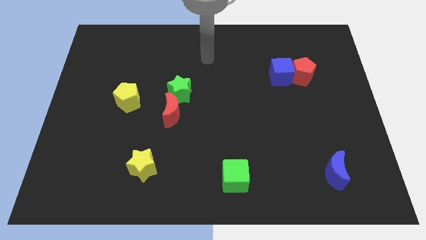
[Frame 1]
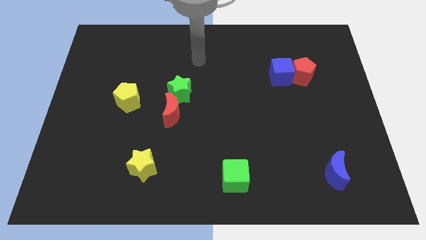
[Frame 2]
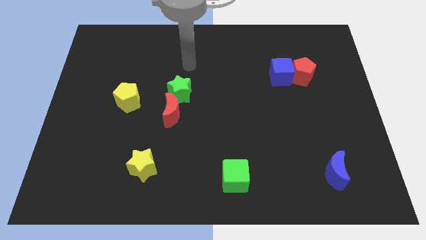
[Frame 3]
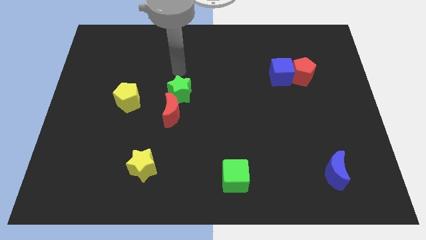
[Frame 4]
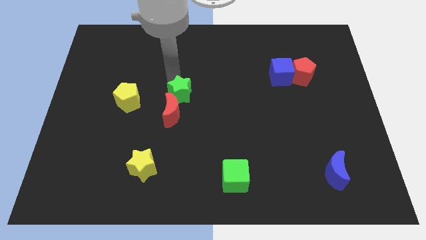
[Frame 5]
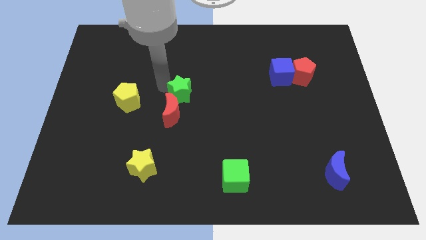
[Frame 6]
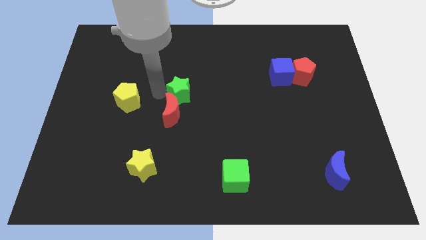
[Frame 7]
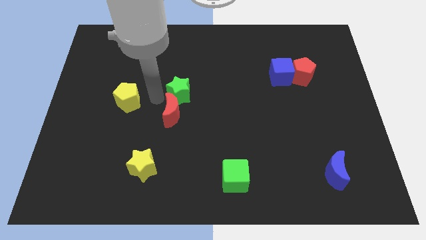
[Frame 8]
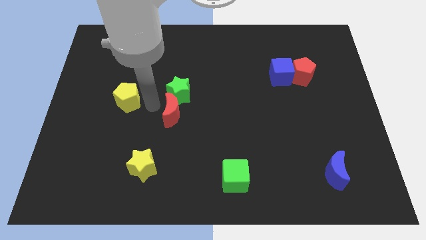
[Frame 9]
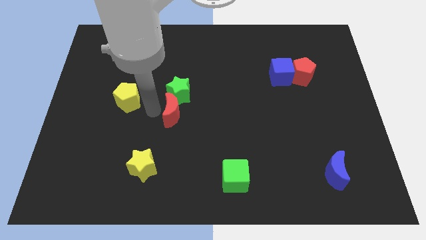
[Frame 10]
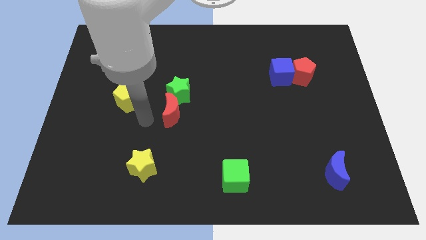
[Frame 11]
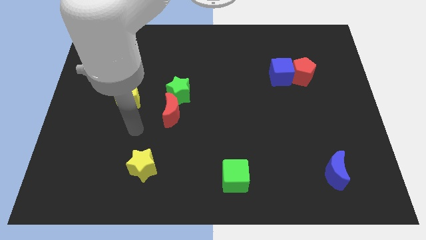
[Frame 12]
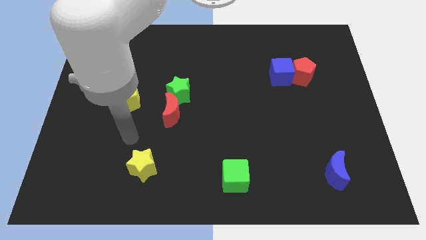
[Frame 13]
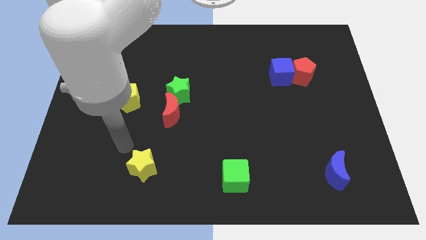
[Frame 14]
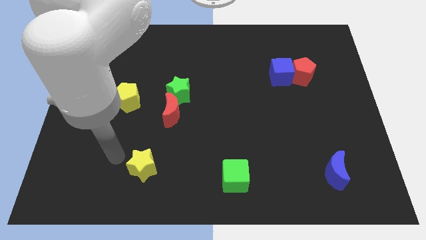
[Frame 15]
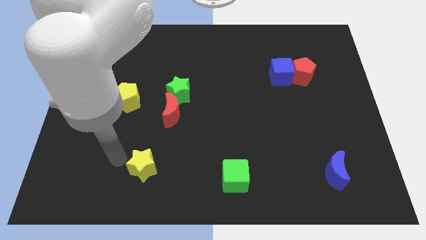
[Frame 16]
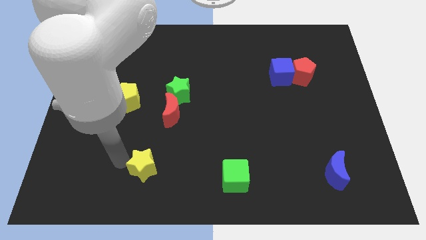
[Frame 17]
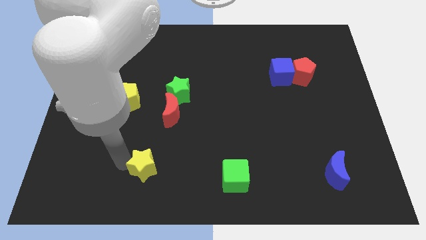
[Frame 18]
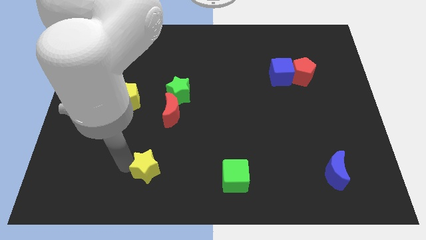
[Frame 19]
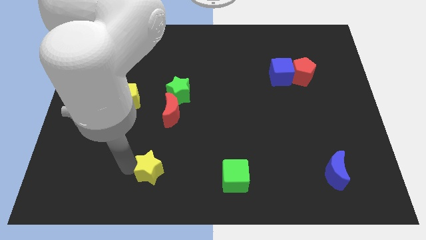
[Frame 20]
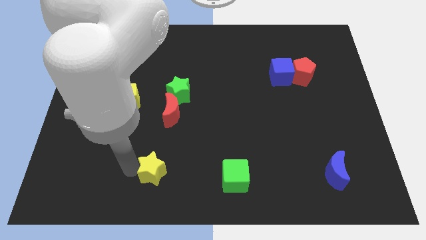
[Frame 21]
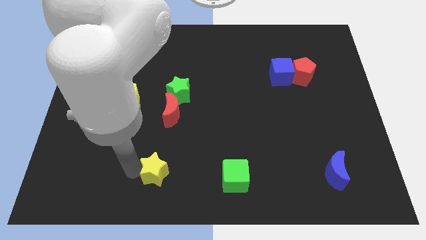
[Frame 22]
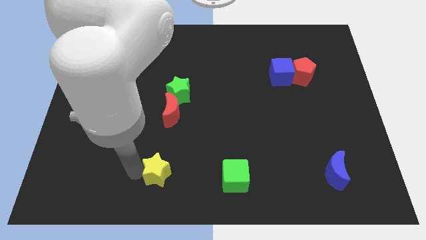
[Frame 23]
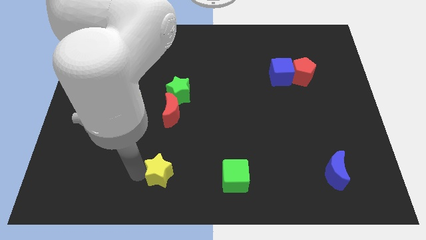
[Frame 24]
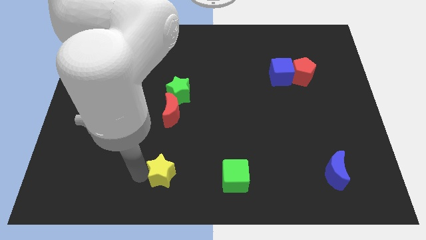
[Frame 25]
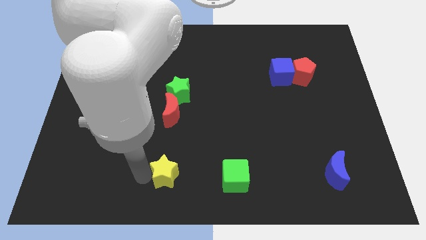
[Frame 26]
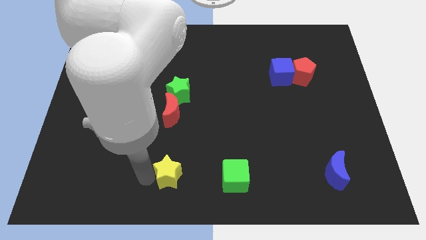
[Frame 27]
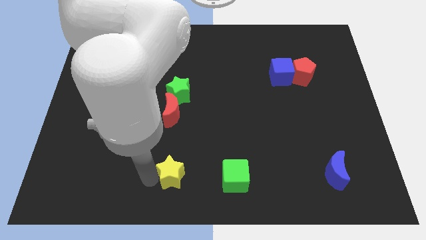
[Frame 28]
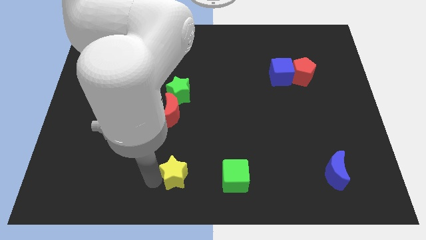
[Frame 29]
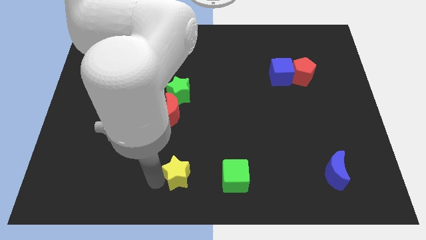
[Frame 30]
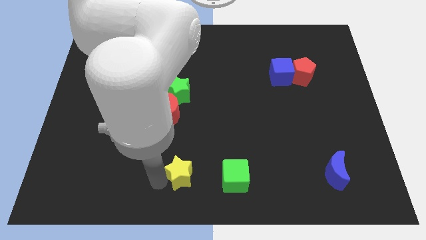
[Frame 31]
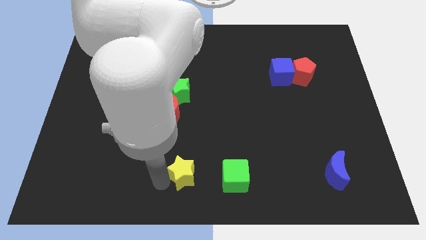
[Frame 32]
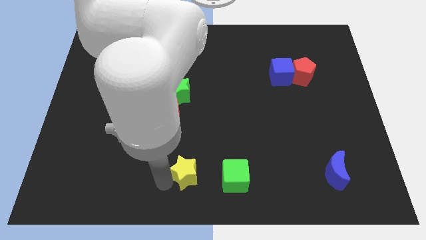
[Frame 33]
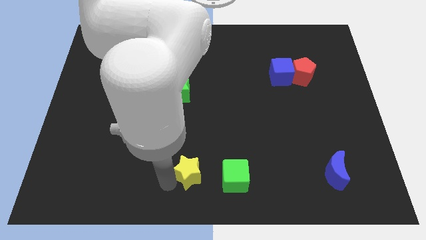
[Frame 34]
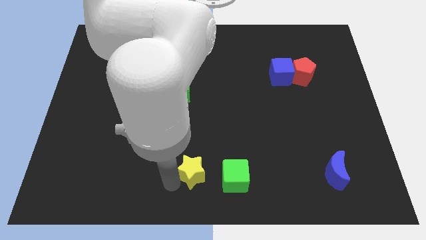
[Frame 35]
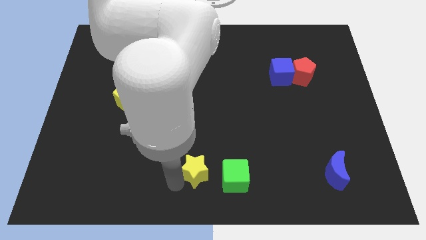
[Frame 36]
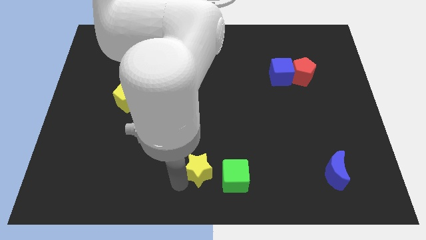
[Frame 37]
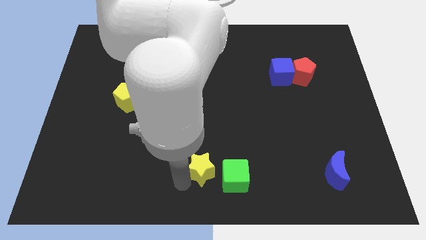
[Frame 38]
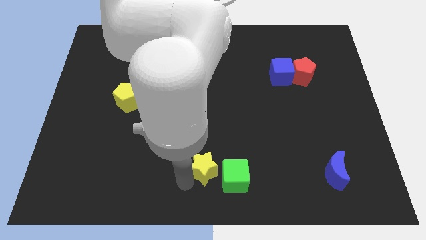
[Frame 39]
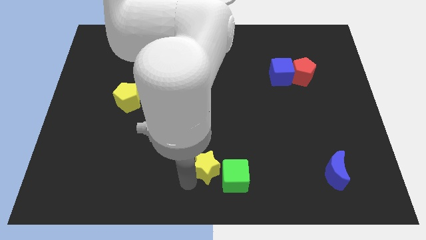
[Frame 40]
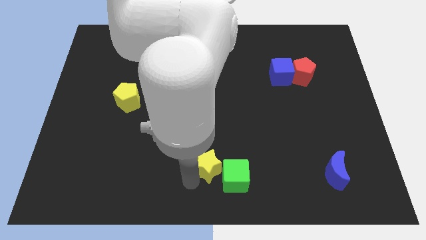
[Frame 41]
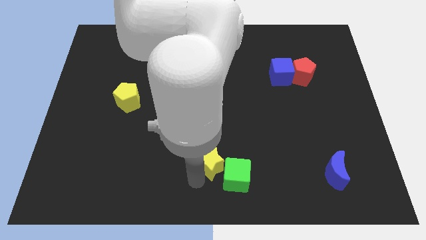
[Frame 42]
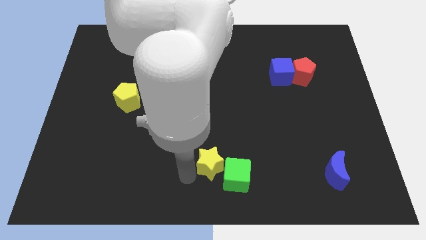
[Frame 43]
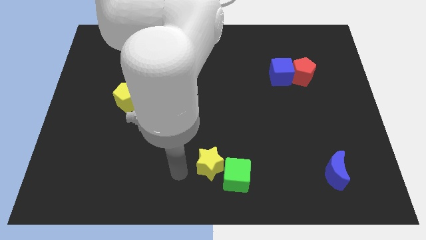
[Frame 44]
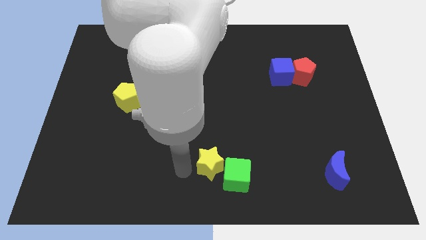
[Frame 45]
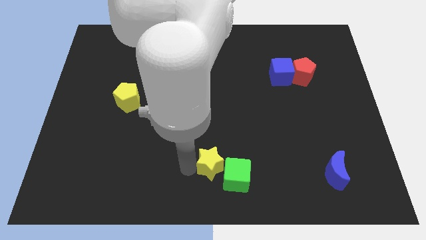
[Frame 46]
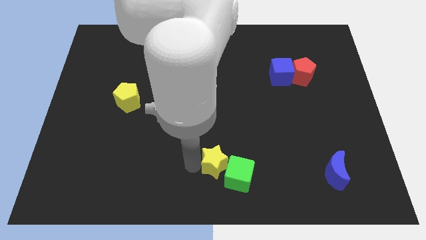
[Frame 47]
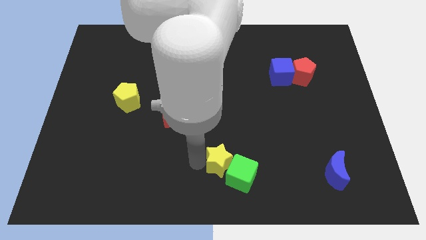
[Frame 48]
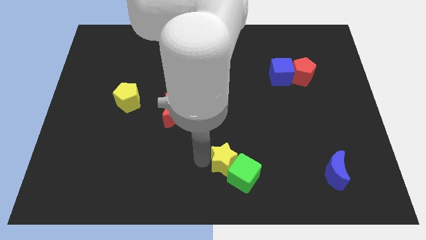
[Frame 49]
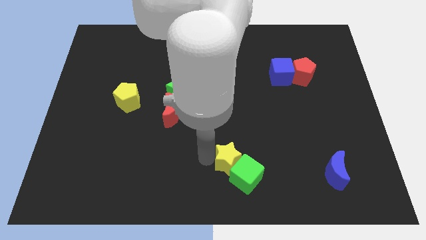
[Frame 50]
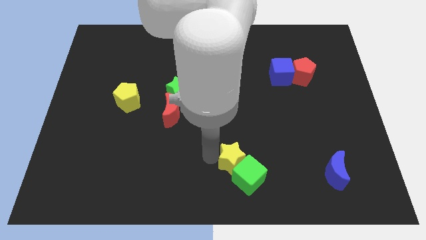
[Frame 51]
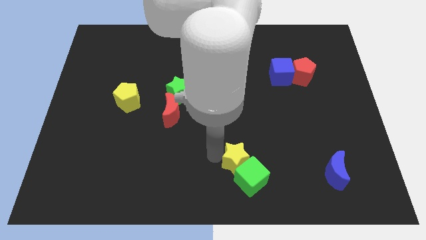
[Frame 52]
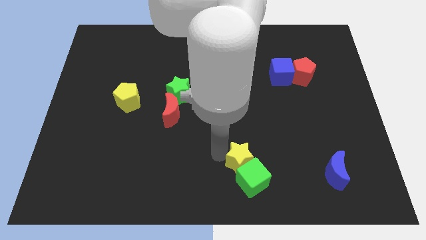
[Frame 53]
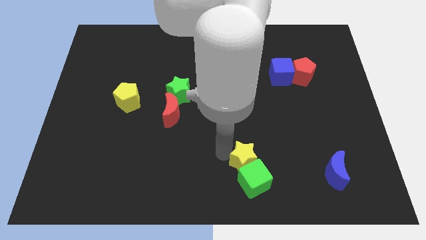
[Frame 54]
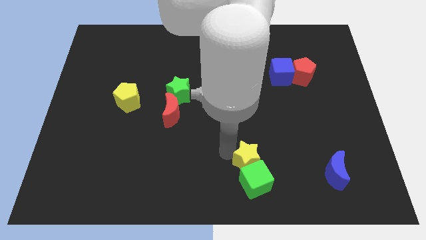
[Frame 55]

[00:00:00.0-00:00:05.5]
push the yellow star diagonally up and to the right of the green cube

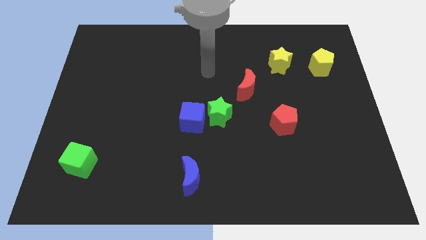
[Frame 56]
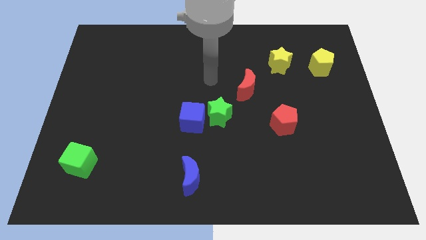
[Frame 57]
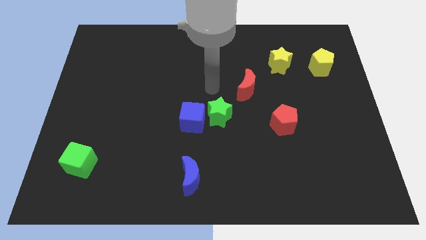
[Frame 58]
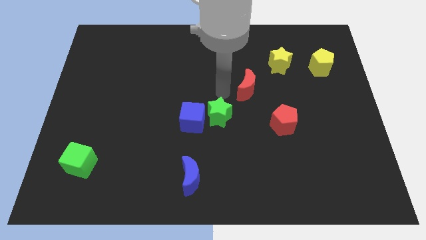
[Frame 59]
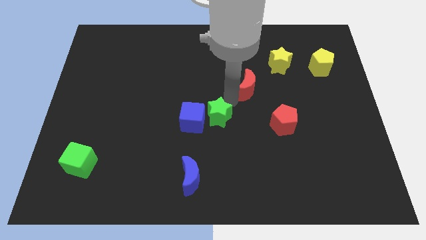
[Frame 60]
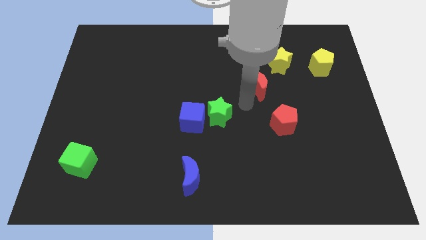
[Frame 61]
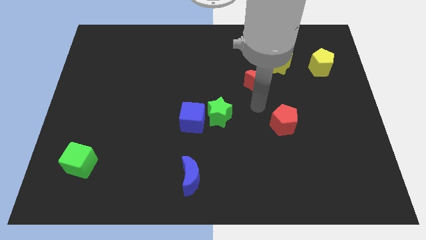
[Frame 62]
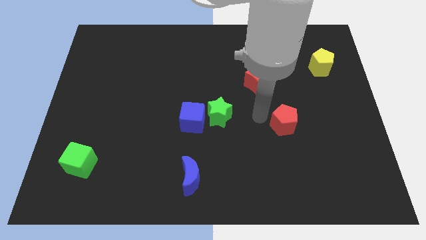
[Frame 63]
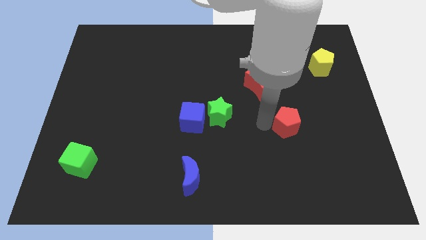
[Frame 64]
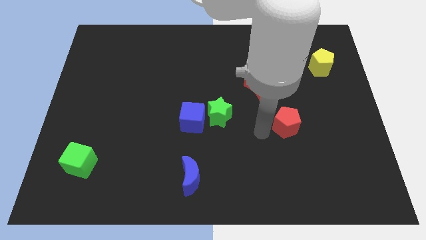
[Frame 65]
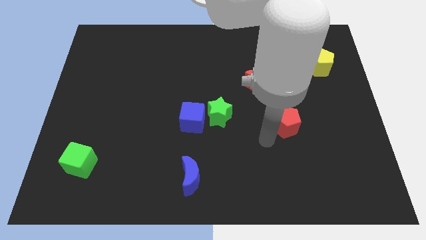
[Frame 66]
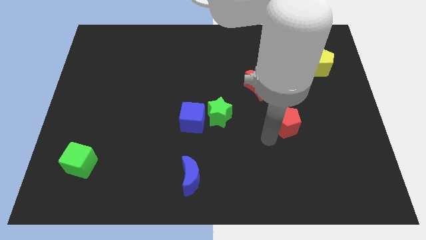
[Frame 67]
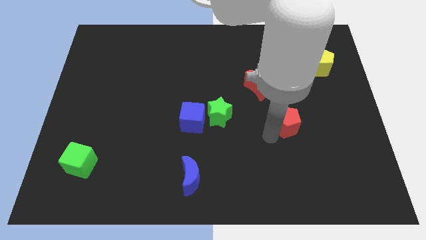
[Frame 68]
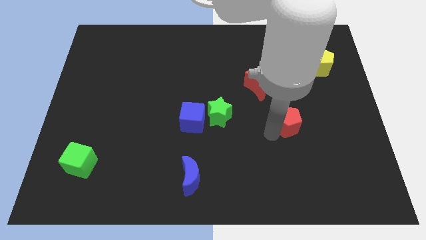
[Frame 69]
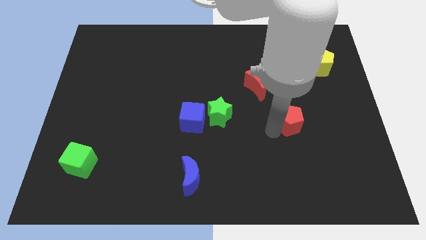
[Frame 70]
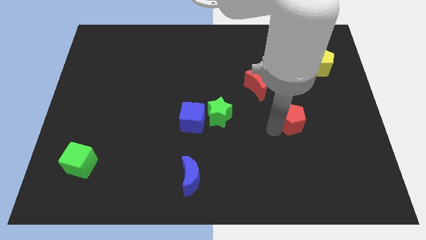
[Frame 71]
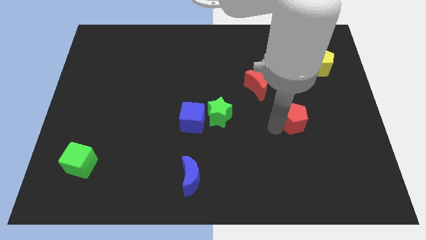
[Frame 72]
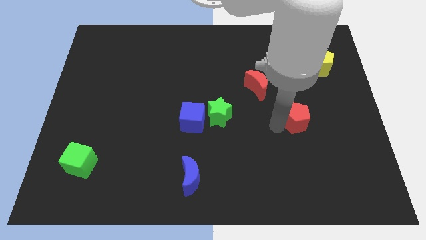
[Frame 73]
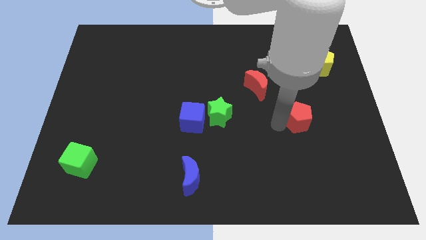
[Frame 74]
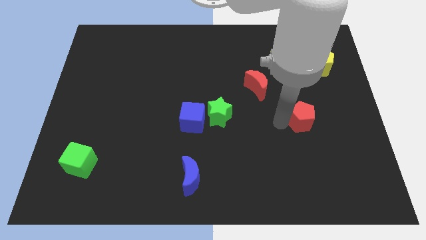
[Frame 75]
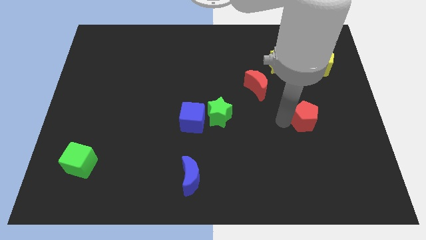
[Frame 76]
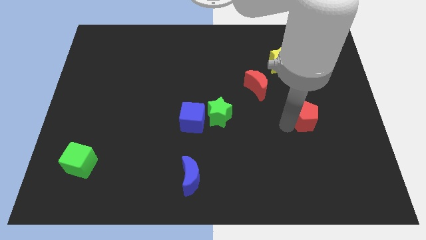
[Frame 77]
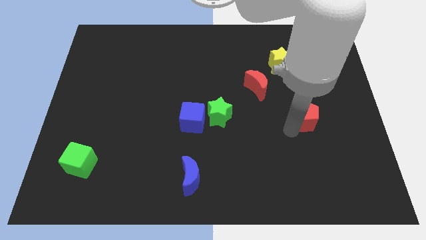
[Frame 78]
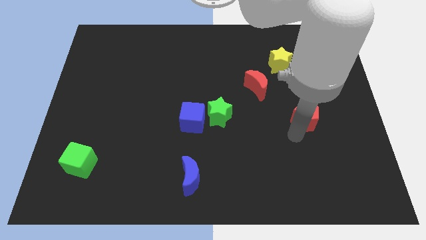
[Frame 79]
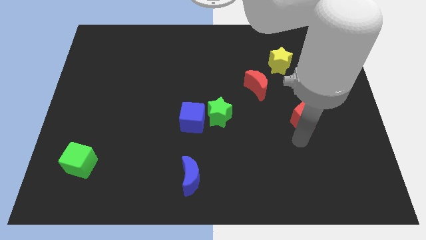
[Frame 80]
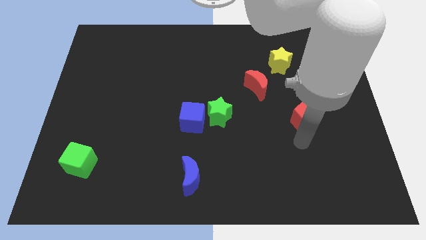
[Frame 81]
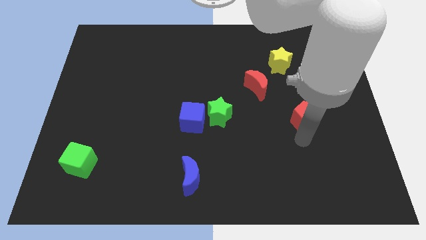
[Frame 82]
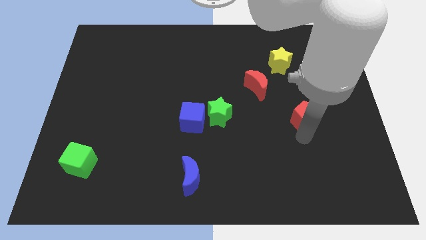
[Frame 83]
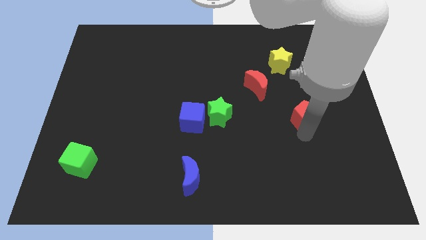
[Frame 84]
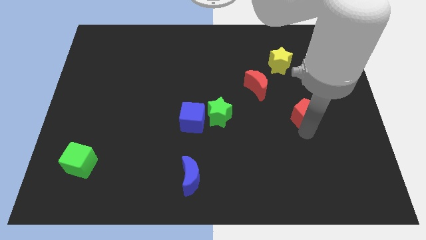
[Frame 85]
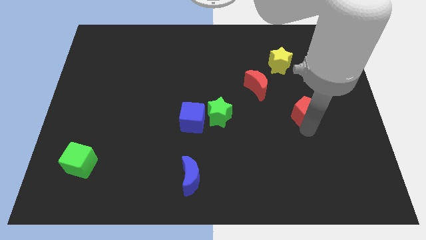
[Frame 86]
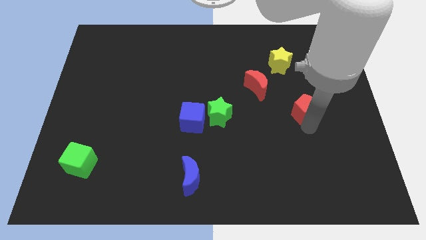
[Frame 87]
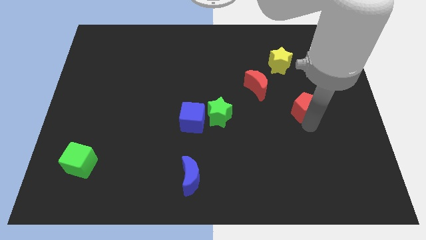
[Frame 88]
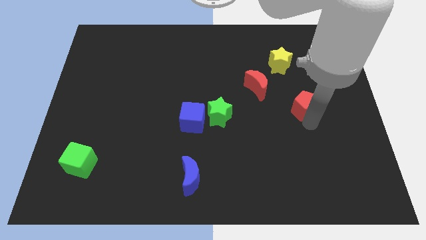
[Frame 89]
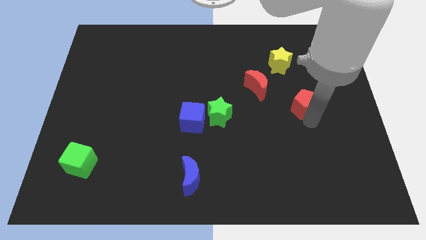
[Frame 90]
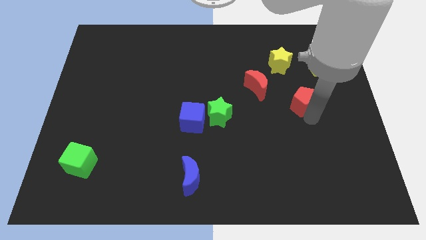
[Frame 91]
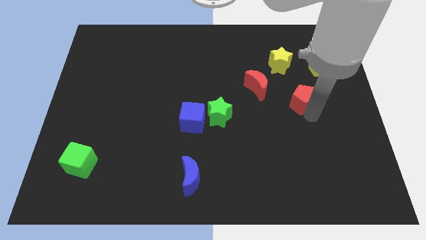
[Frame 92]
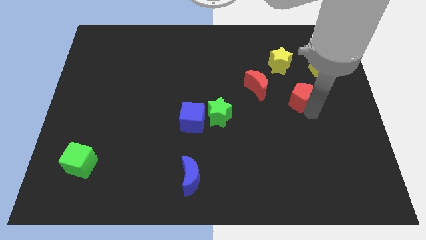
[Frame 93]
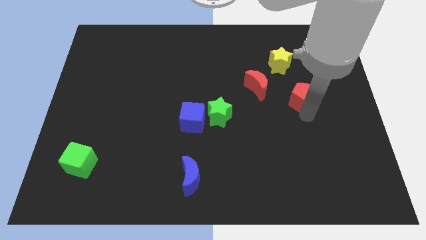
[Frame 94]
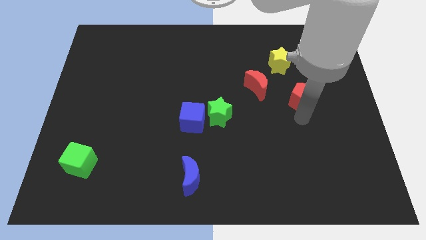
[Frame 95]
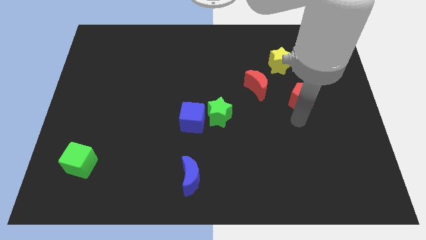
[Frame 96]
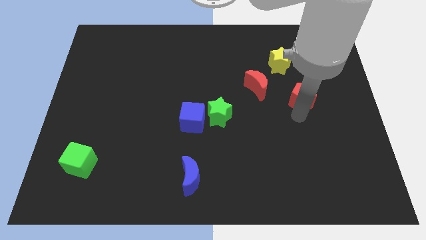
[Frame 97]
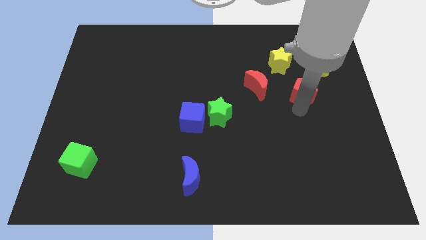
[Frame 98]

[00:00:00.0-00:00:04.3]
move the red pentagon diagonally down and to the left of the yellow pentagon
